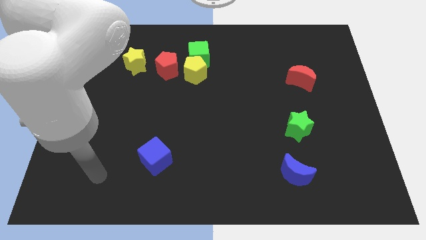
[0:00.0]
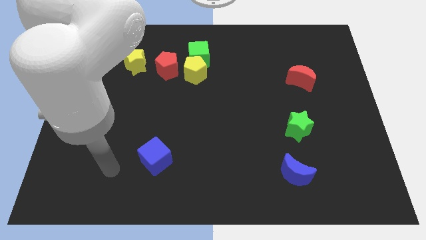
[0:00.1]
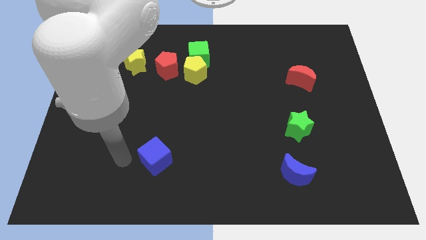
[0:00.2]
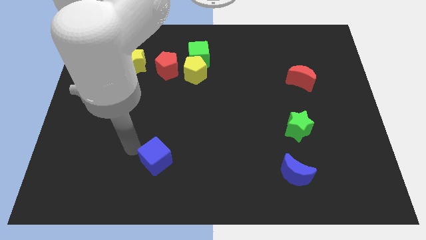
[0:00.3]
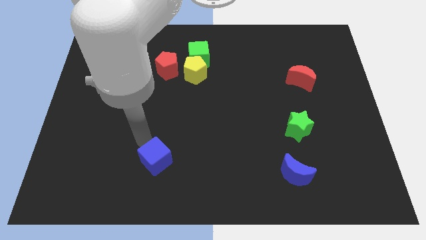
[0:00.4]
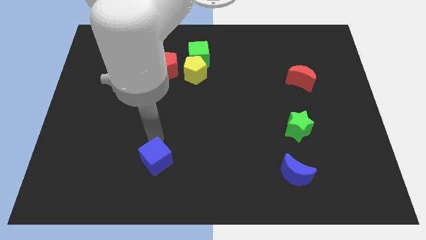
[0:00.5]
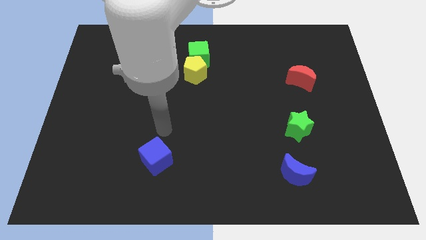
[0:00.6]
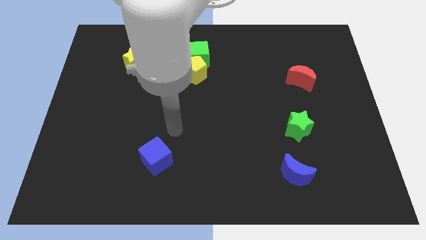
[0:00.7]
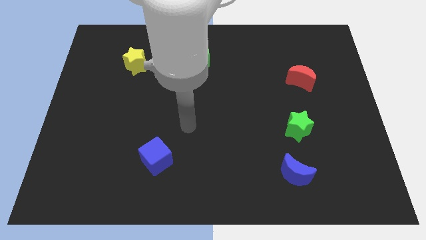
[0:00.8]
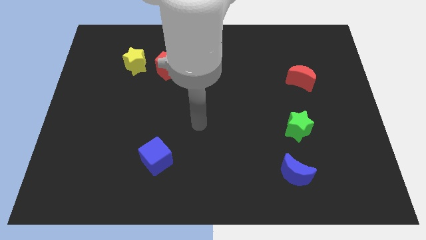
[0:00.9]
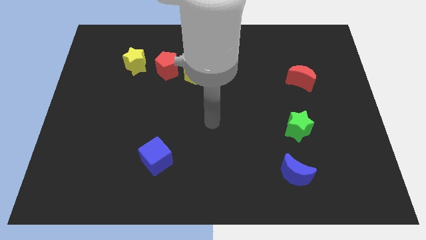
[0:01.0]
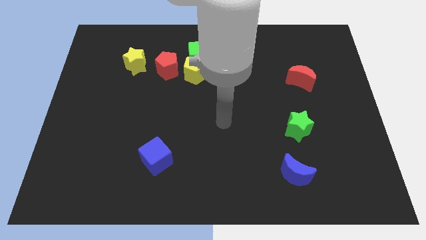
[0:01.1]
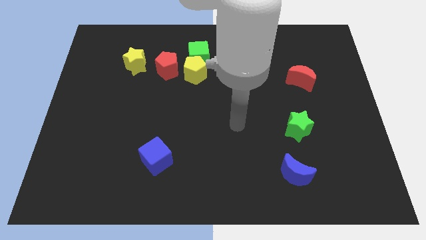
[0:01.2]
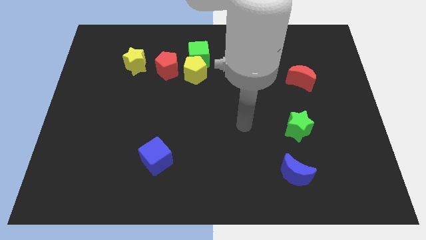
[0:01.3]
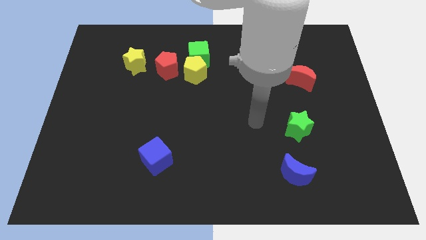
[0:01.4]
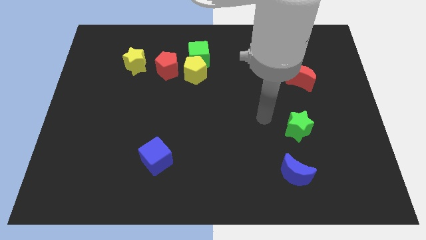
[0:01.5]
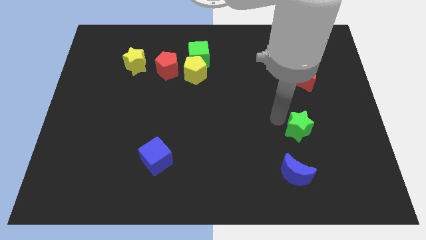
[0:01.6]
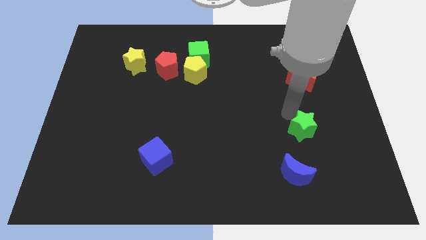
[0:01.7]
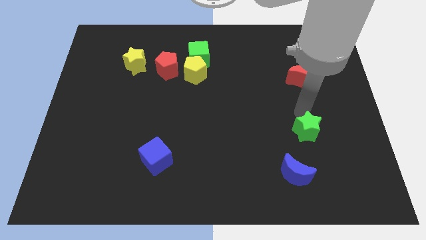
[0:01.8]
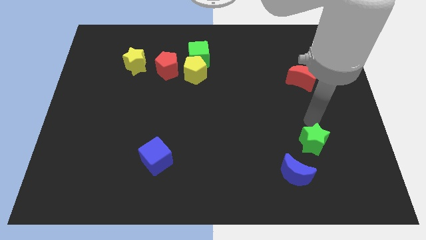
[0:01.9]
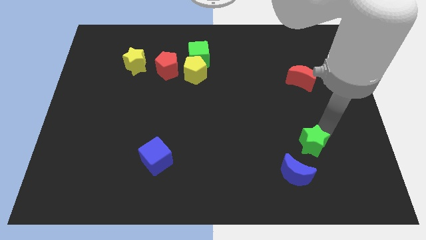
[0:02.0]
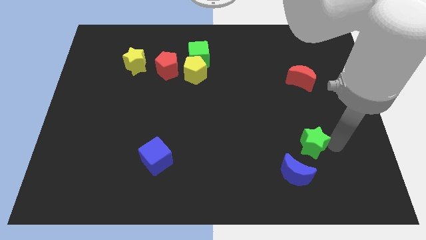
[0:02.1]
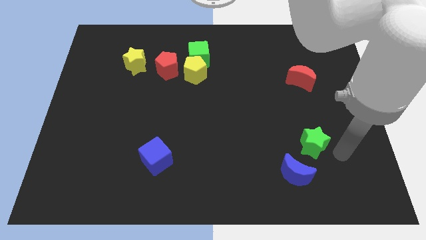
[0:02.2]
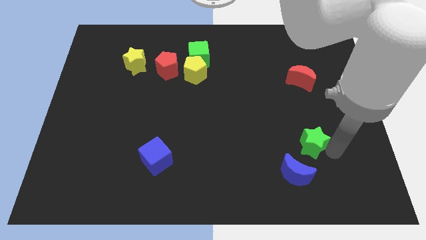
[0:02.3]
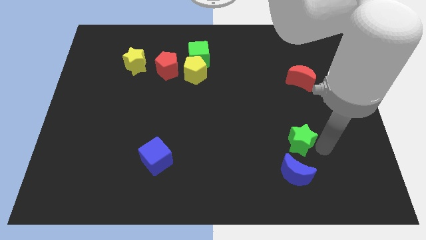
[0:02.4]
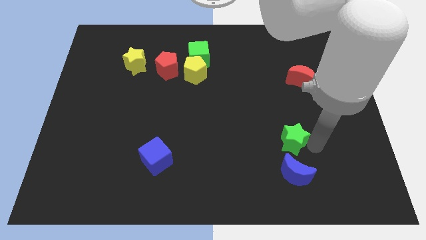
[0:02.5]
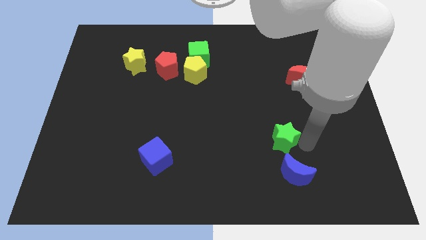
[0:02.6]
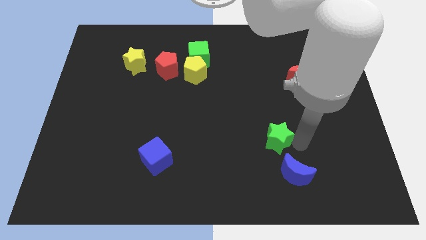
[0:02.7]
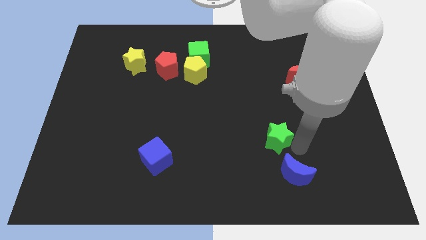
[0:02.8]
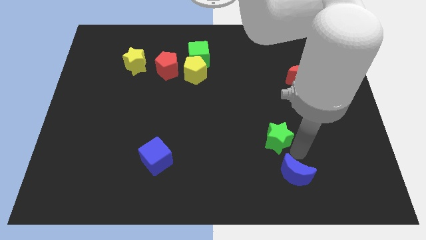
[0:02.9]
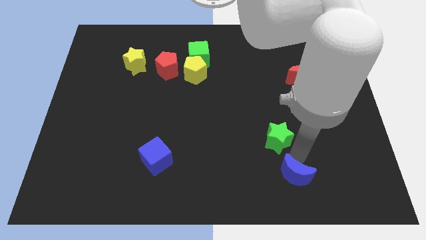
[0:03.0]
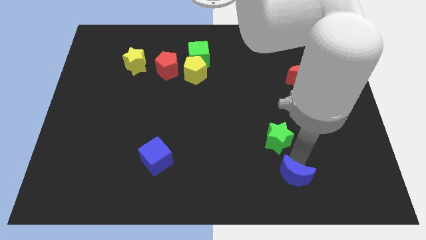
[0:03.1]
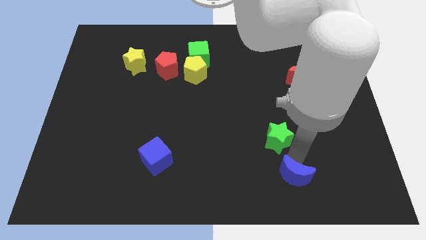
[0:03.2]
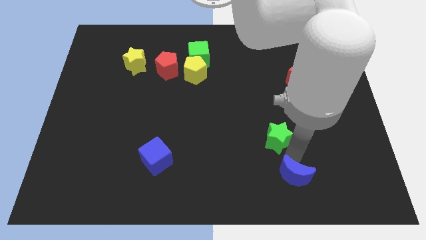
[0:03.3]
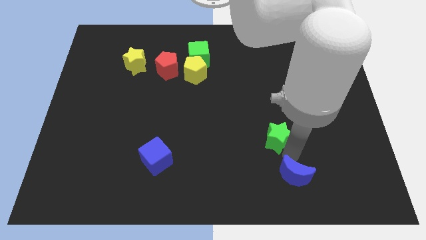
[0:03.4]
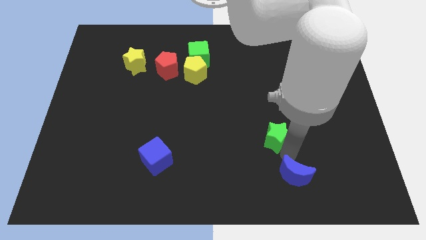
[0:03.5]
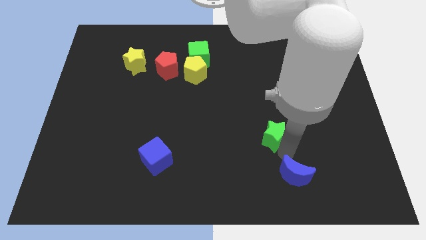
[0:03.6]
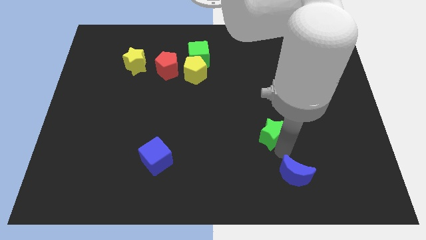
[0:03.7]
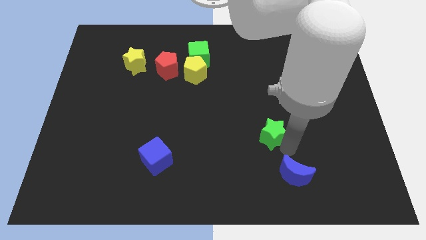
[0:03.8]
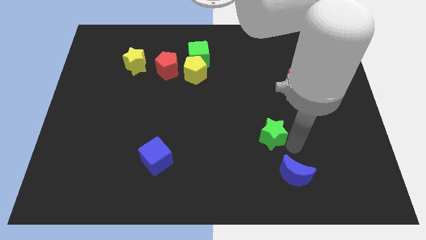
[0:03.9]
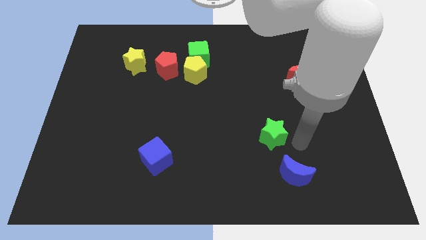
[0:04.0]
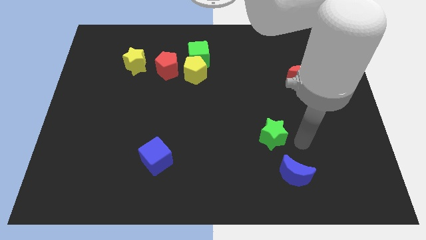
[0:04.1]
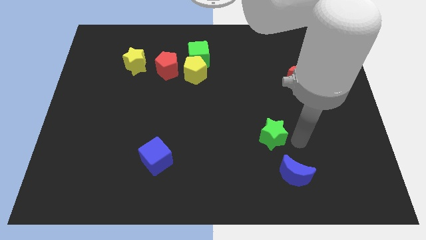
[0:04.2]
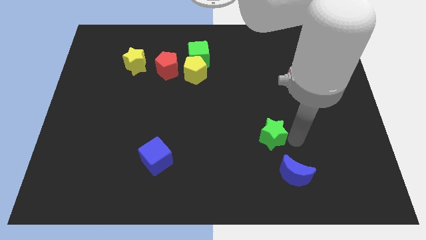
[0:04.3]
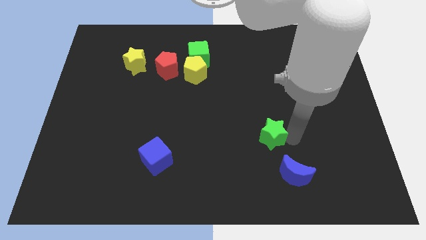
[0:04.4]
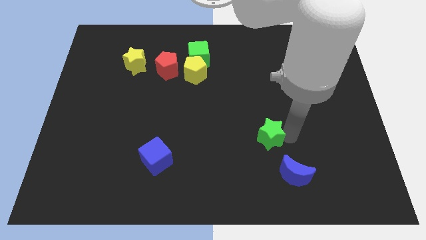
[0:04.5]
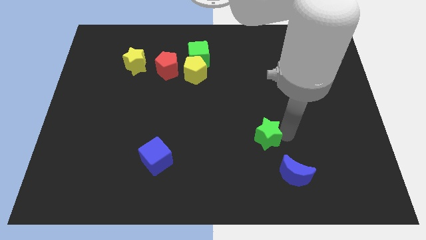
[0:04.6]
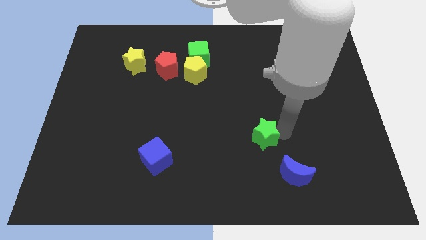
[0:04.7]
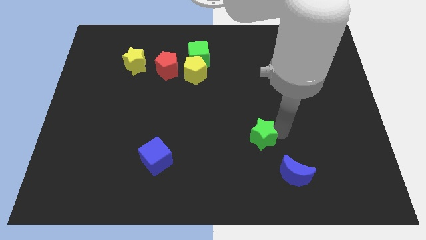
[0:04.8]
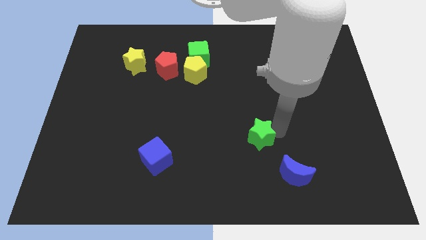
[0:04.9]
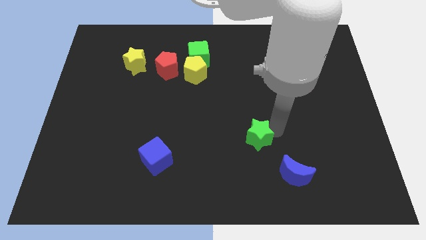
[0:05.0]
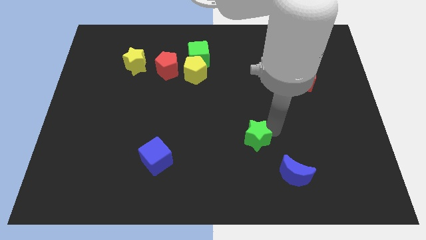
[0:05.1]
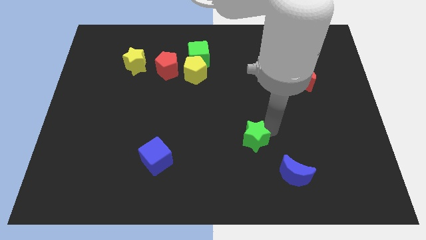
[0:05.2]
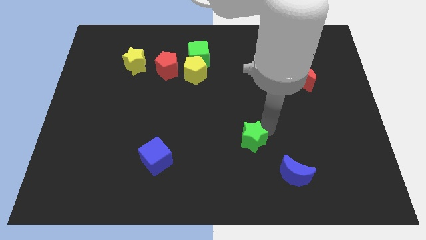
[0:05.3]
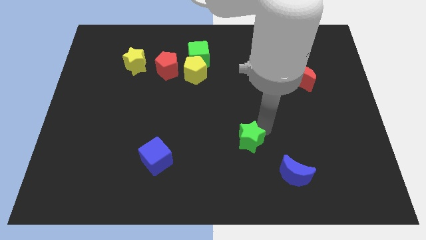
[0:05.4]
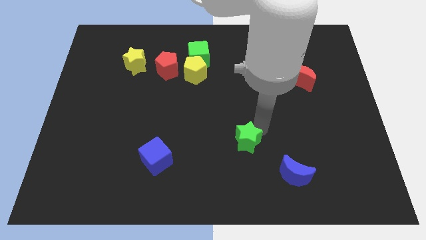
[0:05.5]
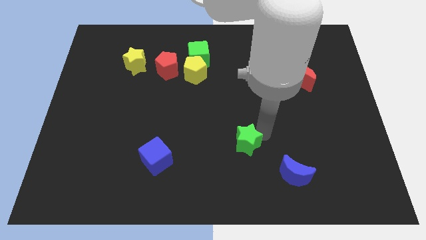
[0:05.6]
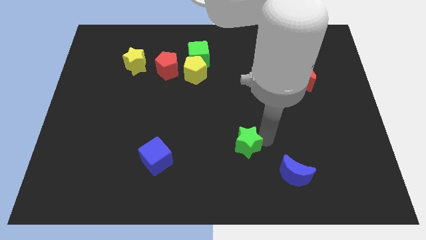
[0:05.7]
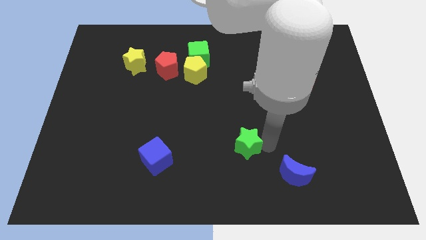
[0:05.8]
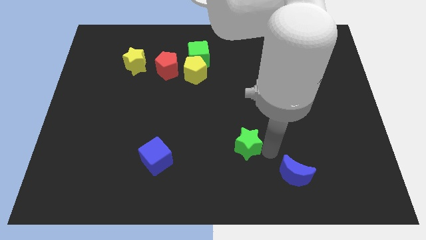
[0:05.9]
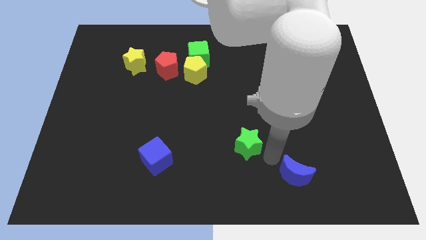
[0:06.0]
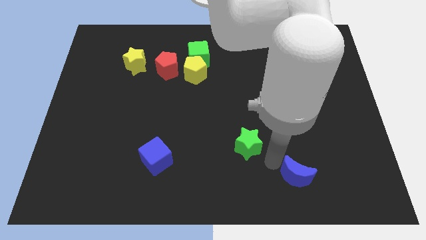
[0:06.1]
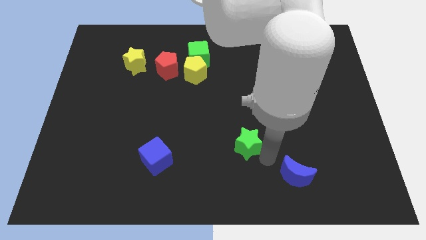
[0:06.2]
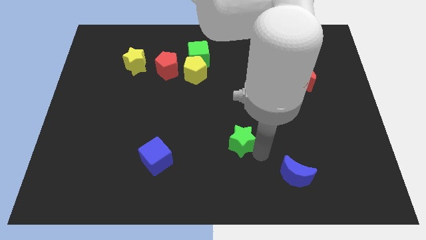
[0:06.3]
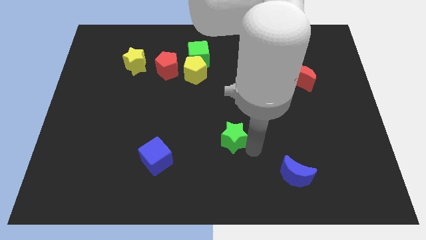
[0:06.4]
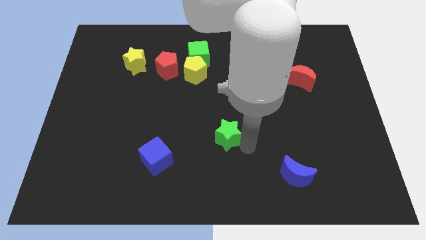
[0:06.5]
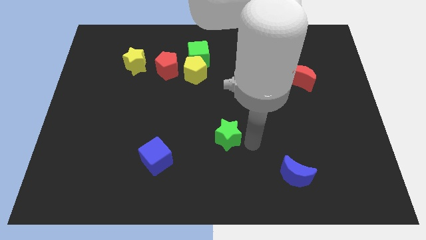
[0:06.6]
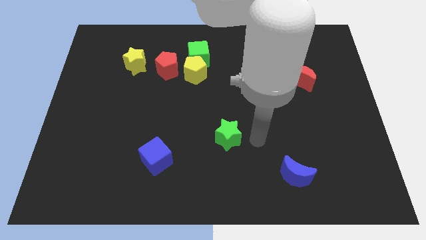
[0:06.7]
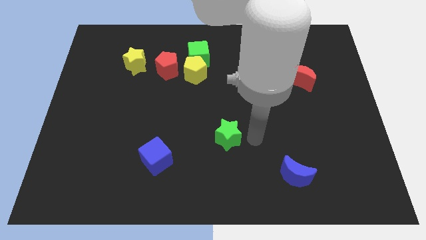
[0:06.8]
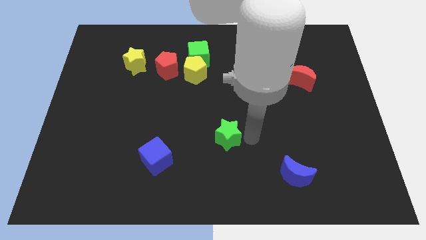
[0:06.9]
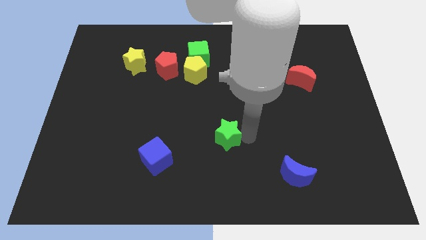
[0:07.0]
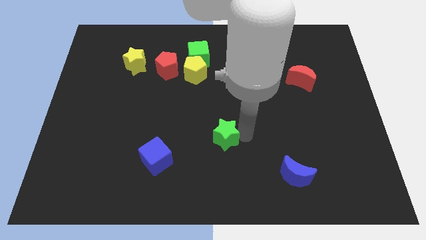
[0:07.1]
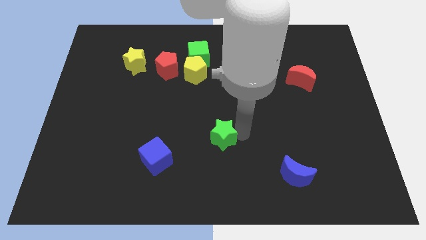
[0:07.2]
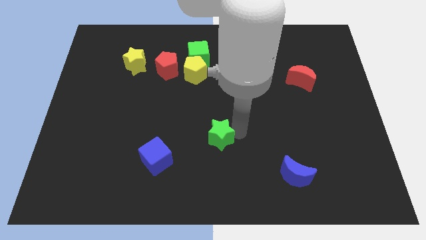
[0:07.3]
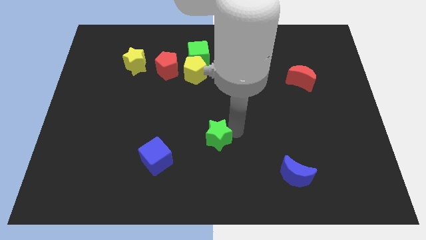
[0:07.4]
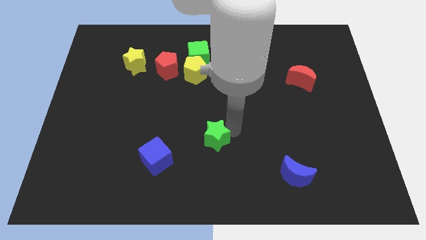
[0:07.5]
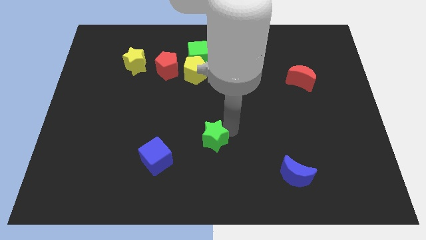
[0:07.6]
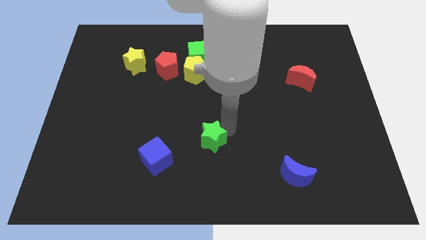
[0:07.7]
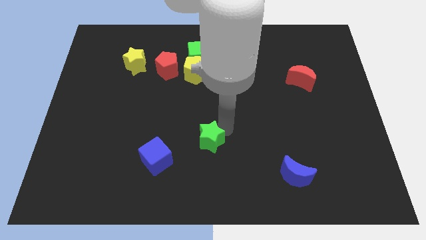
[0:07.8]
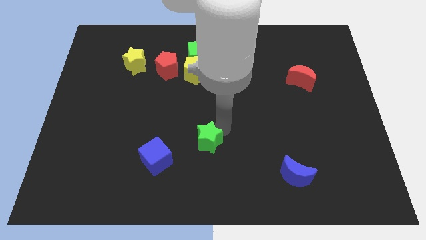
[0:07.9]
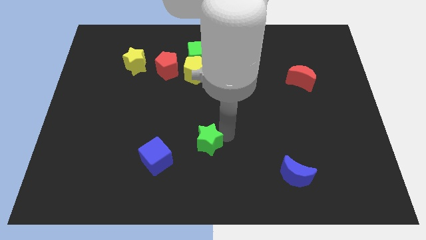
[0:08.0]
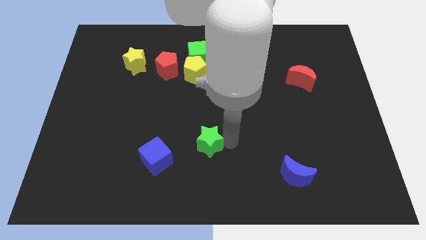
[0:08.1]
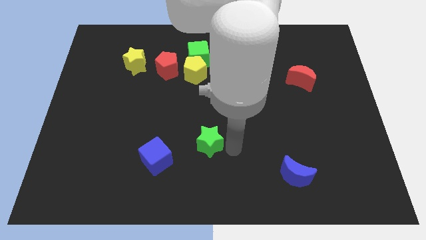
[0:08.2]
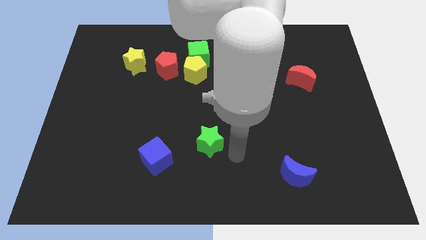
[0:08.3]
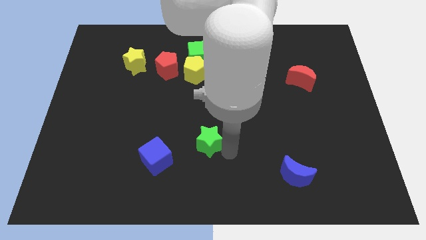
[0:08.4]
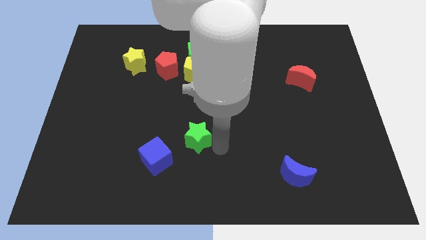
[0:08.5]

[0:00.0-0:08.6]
push the green star to the left

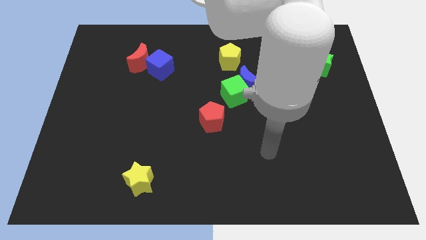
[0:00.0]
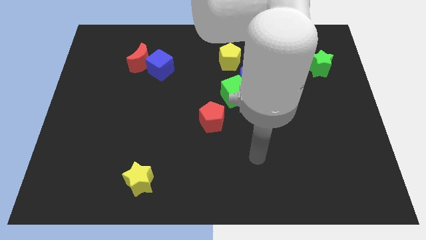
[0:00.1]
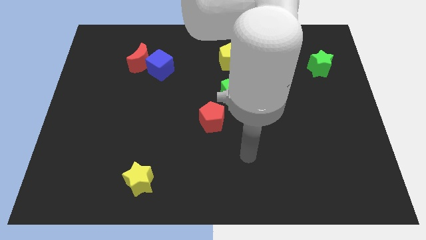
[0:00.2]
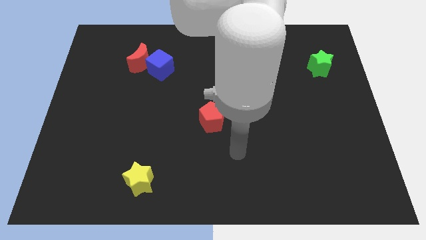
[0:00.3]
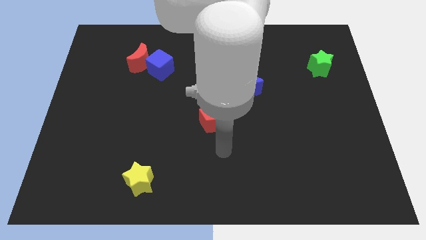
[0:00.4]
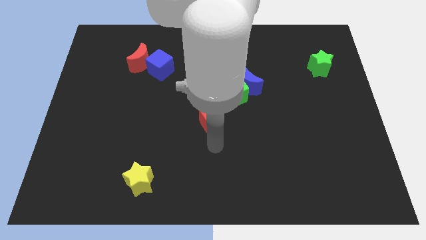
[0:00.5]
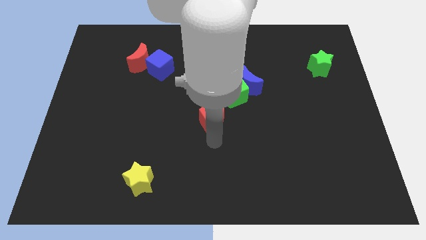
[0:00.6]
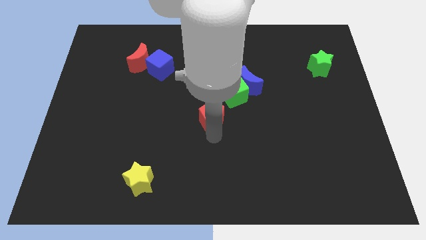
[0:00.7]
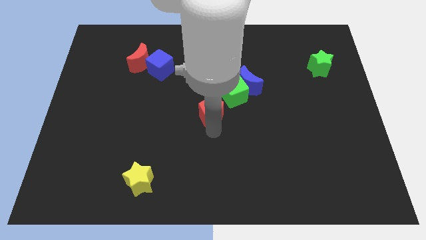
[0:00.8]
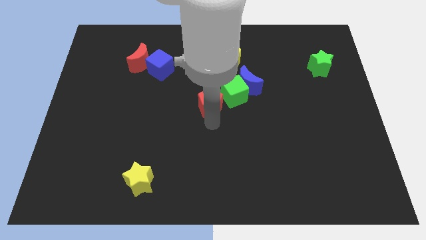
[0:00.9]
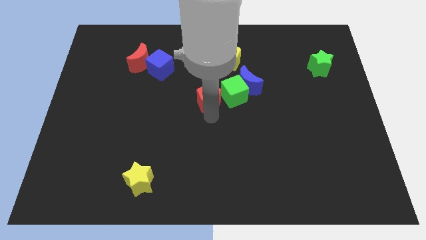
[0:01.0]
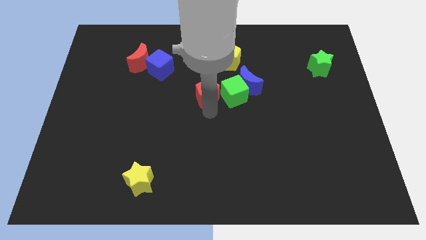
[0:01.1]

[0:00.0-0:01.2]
slide the red pentagon a little up
